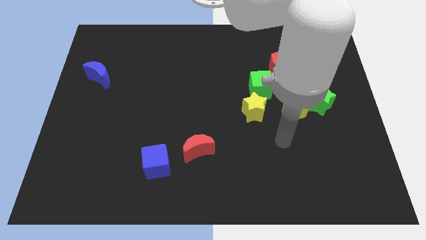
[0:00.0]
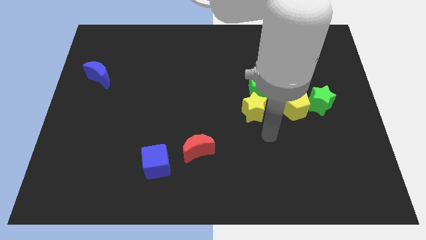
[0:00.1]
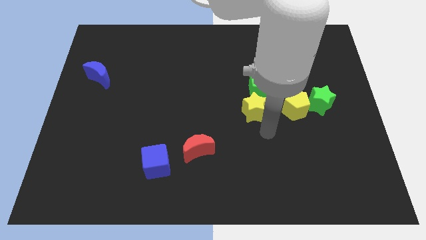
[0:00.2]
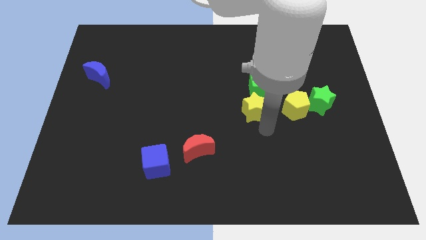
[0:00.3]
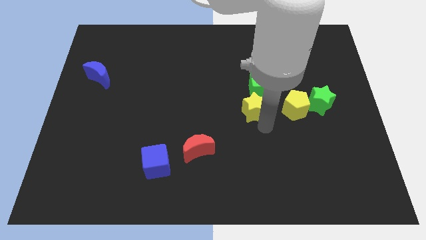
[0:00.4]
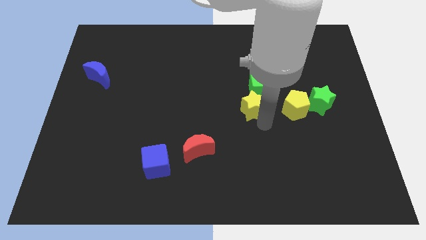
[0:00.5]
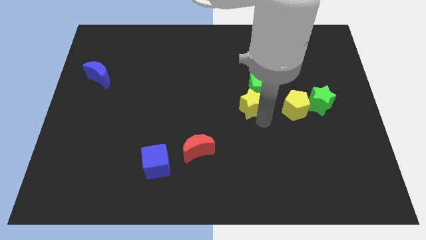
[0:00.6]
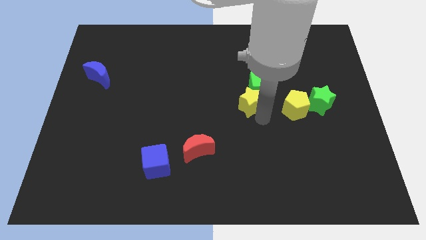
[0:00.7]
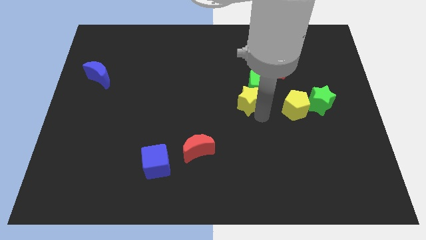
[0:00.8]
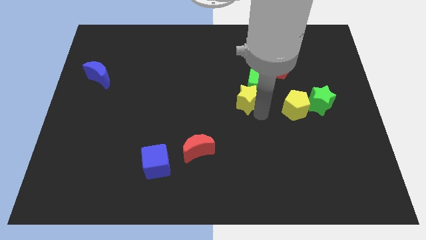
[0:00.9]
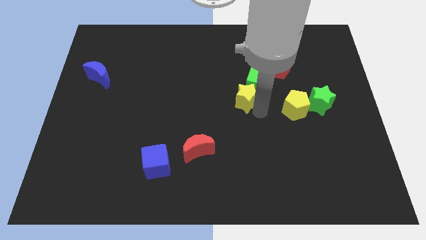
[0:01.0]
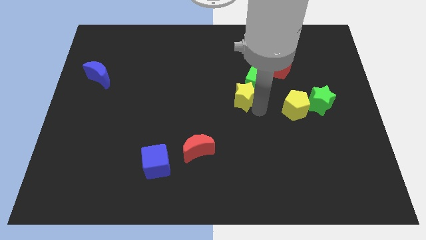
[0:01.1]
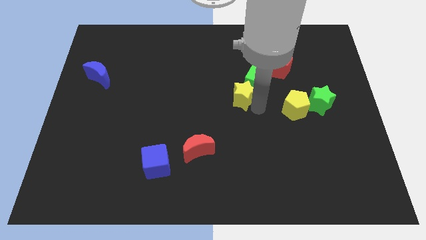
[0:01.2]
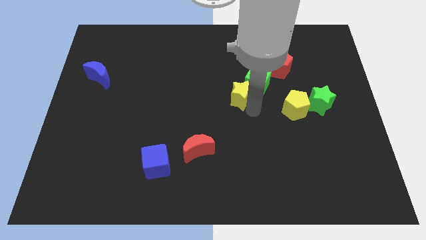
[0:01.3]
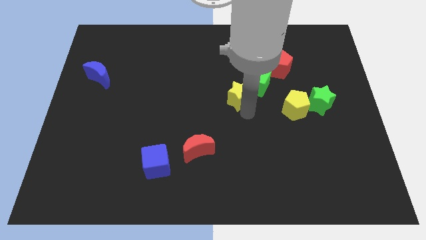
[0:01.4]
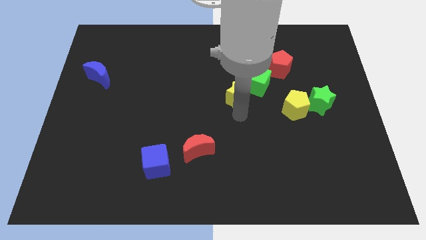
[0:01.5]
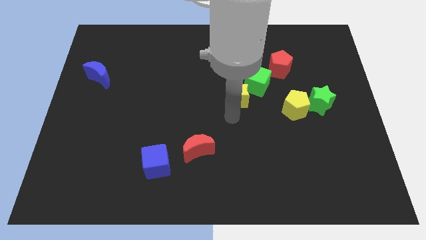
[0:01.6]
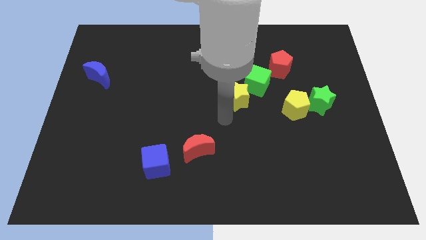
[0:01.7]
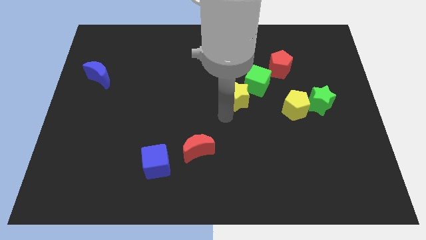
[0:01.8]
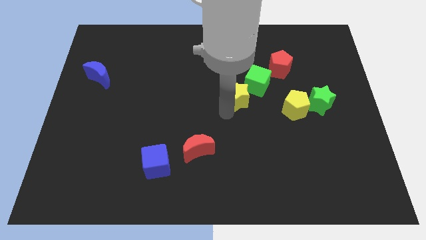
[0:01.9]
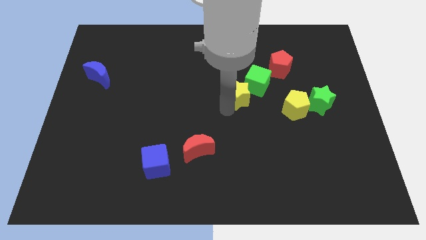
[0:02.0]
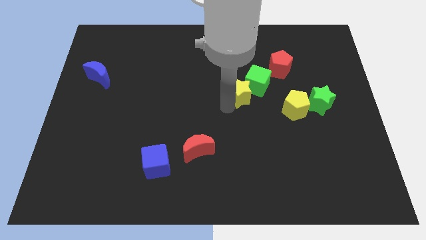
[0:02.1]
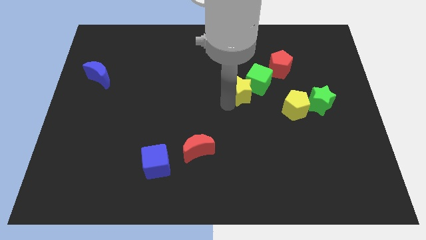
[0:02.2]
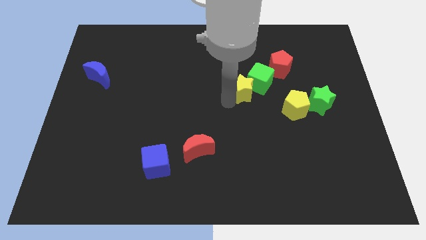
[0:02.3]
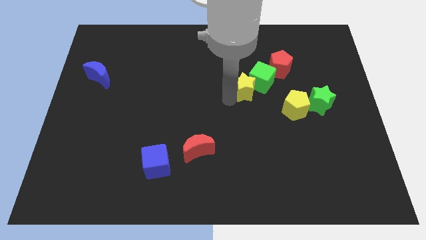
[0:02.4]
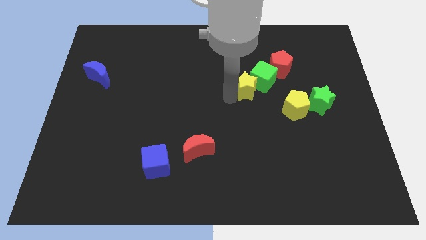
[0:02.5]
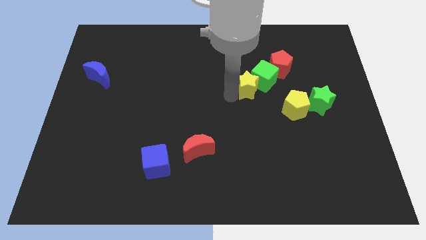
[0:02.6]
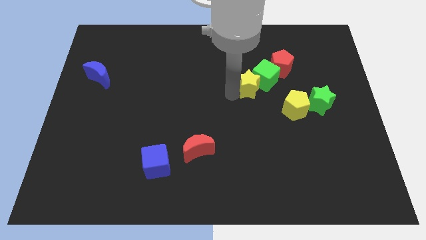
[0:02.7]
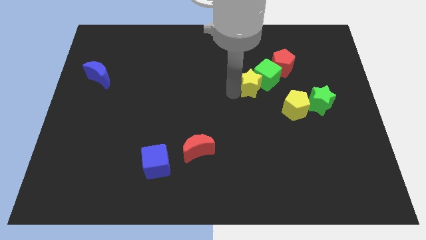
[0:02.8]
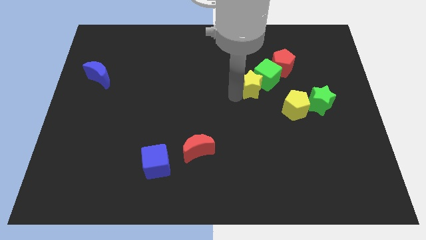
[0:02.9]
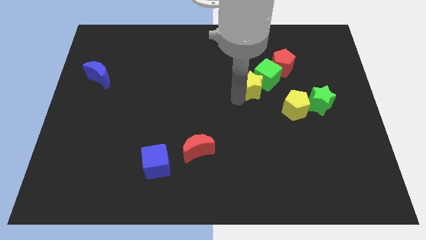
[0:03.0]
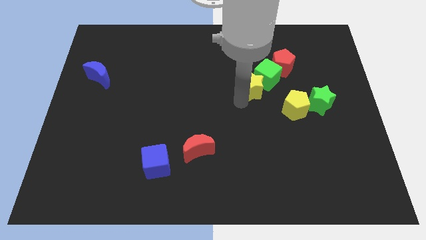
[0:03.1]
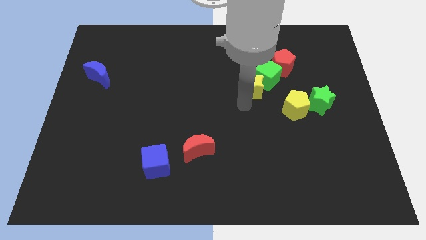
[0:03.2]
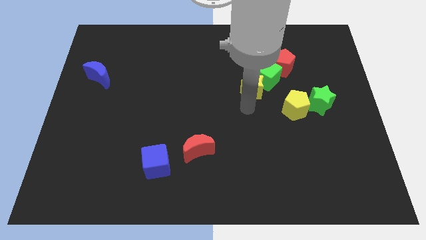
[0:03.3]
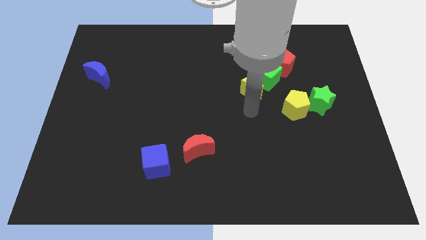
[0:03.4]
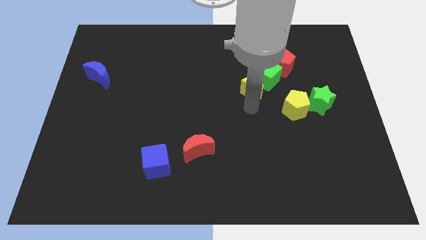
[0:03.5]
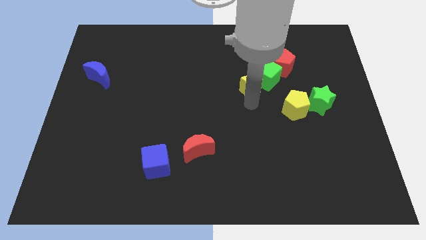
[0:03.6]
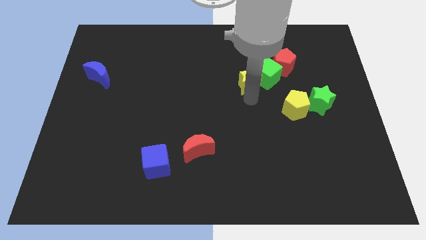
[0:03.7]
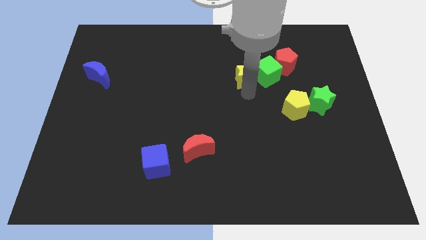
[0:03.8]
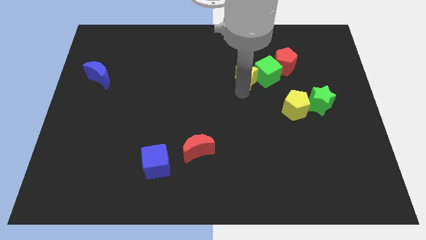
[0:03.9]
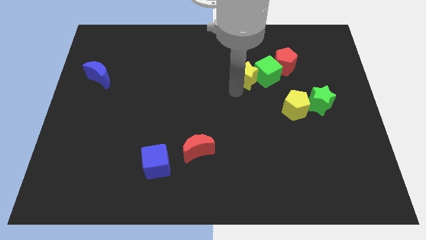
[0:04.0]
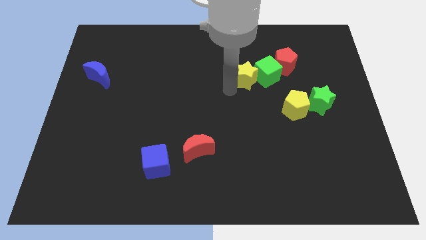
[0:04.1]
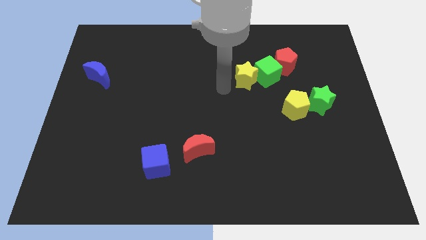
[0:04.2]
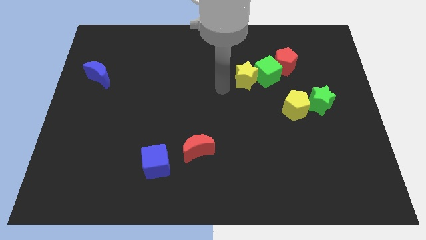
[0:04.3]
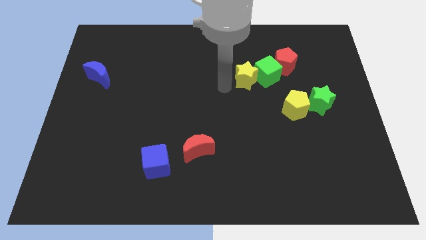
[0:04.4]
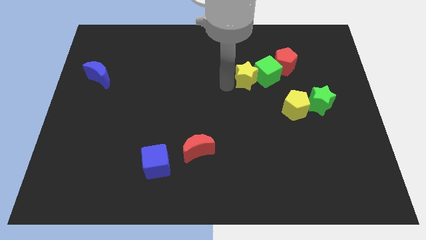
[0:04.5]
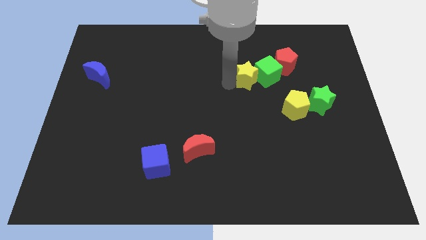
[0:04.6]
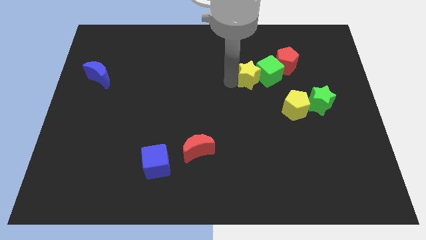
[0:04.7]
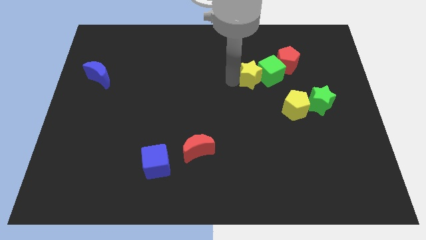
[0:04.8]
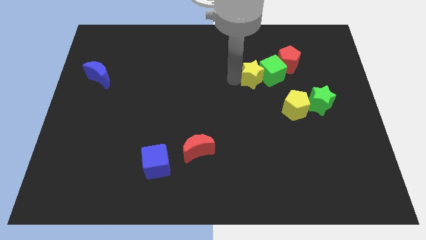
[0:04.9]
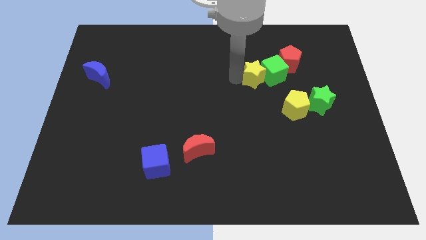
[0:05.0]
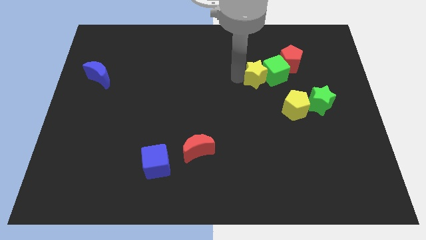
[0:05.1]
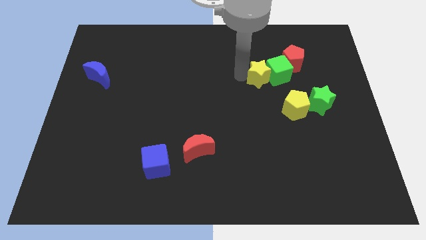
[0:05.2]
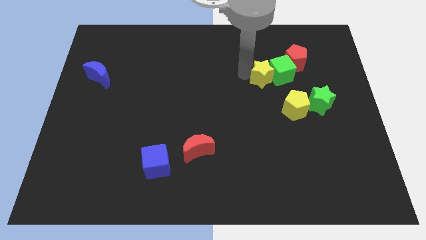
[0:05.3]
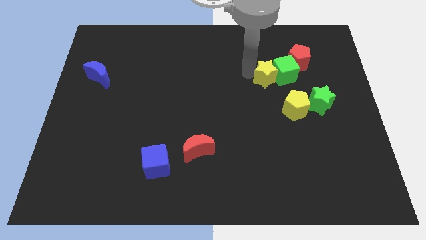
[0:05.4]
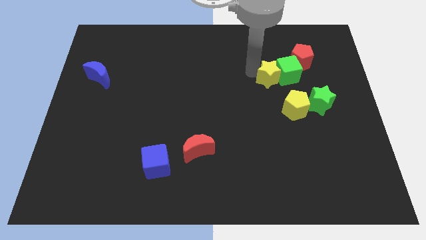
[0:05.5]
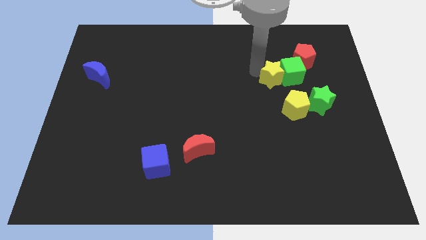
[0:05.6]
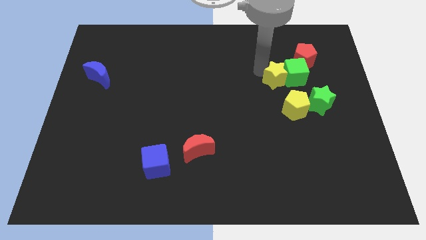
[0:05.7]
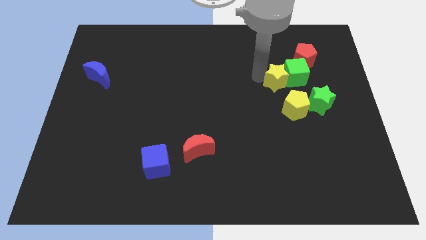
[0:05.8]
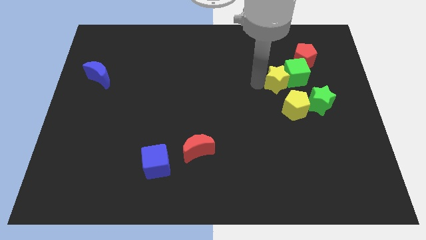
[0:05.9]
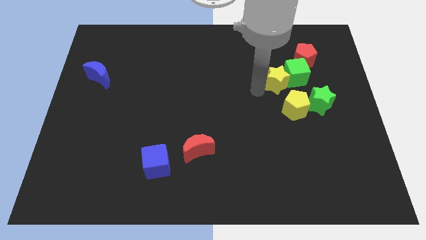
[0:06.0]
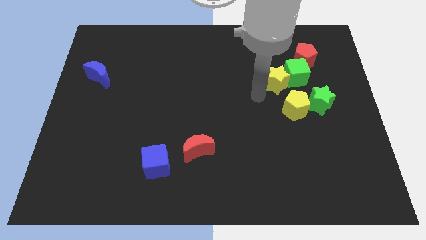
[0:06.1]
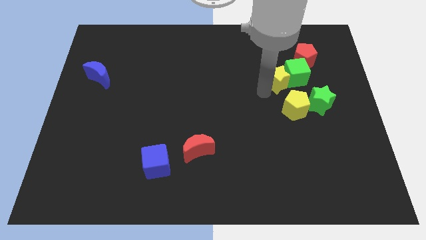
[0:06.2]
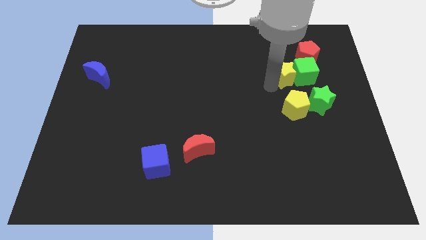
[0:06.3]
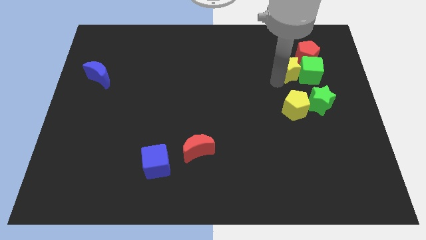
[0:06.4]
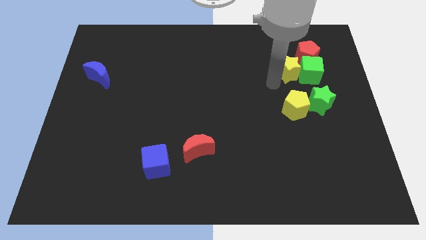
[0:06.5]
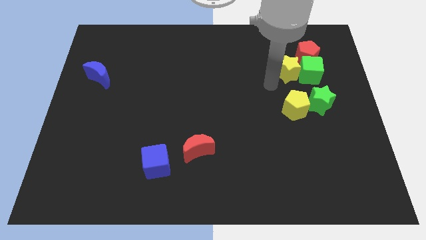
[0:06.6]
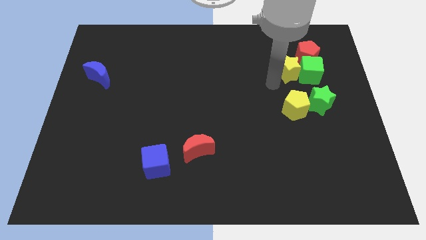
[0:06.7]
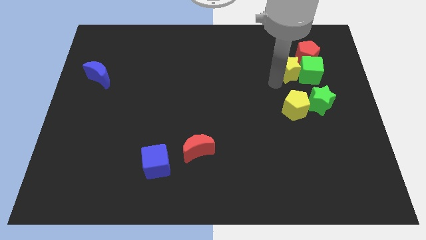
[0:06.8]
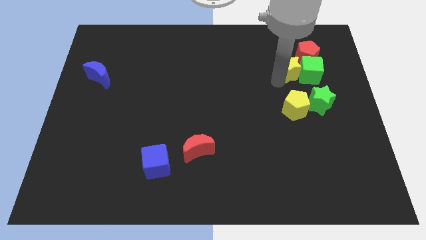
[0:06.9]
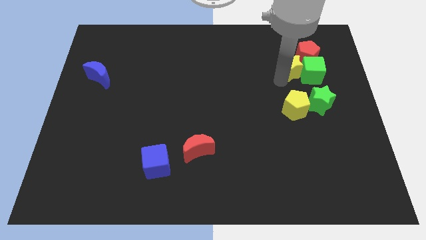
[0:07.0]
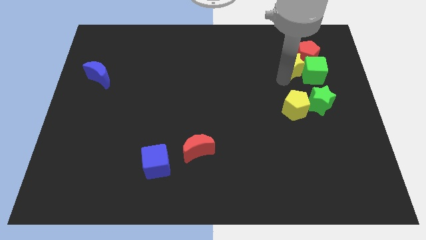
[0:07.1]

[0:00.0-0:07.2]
slide the yellow star close to the red pentagon
